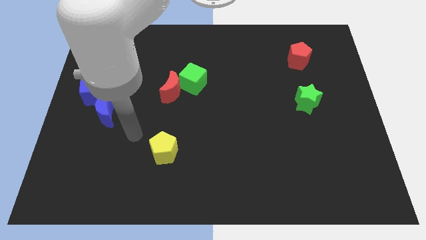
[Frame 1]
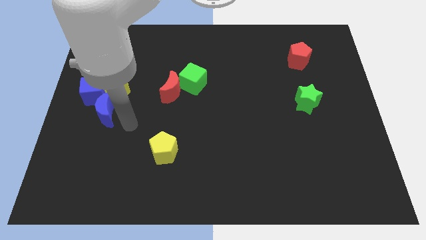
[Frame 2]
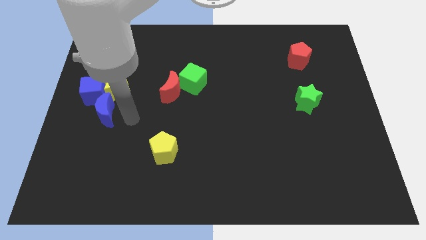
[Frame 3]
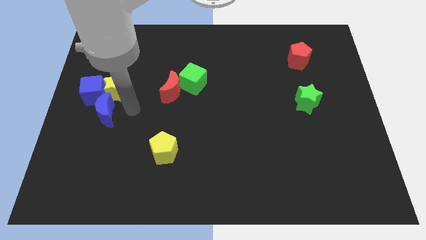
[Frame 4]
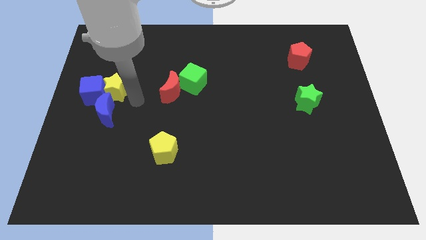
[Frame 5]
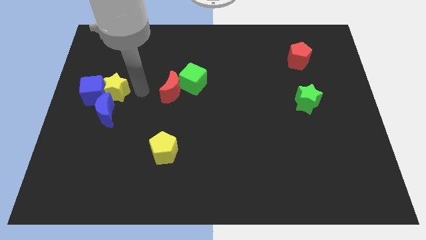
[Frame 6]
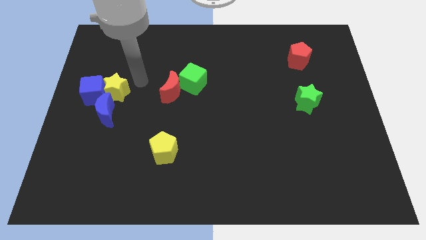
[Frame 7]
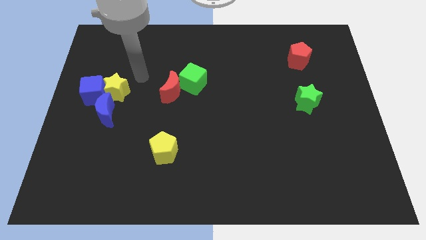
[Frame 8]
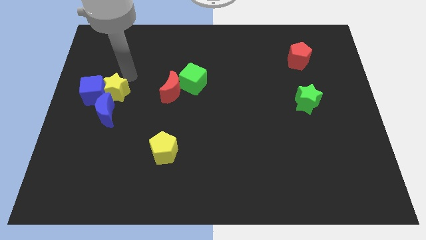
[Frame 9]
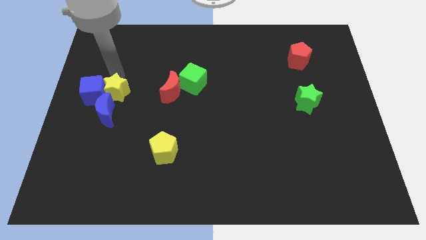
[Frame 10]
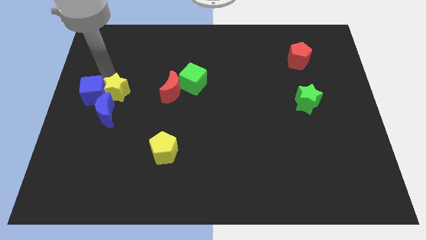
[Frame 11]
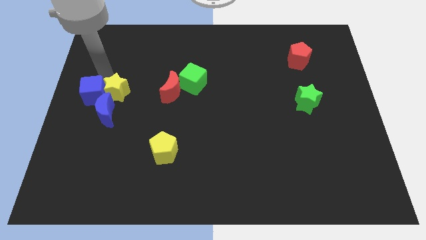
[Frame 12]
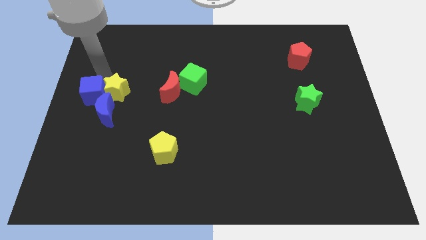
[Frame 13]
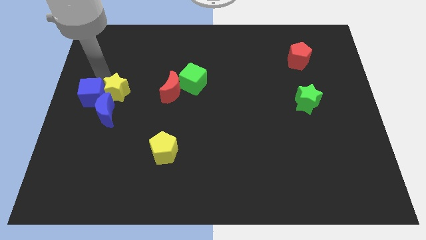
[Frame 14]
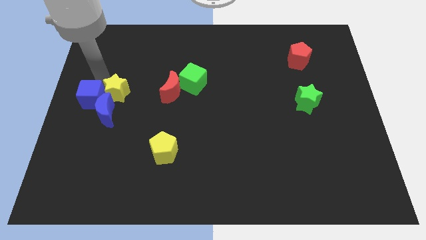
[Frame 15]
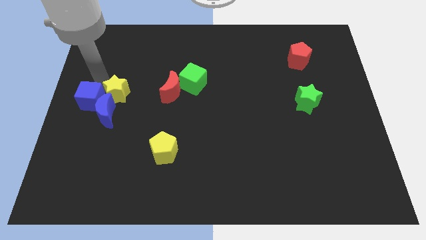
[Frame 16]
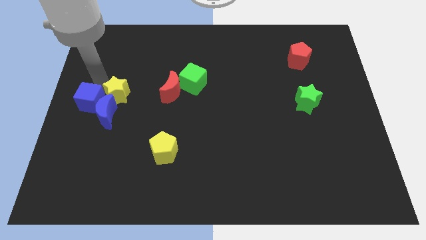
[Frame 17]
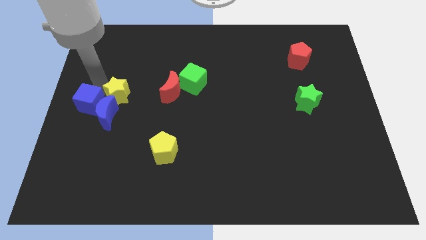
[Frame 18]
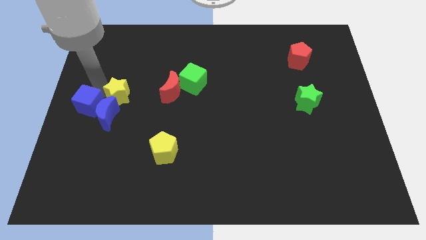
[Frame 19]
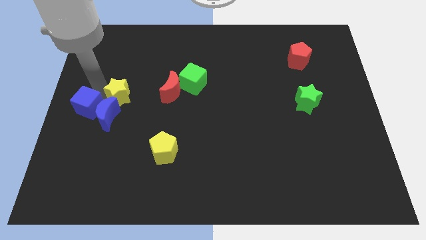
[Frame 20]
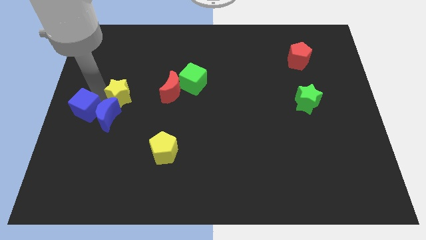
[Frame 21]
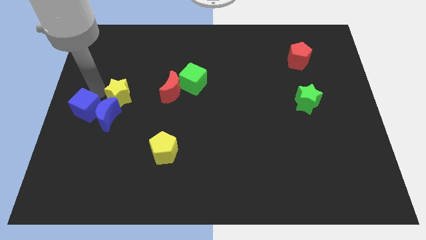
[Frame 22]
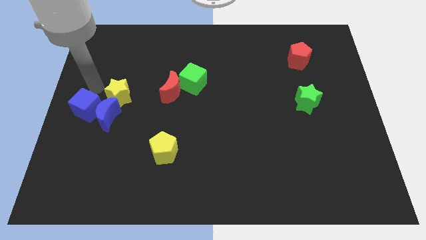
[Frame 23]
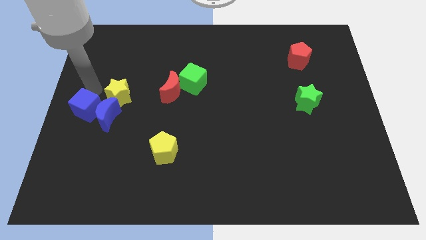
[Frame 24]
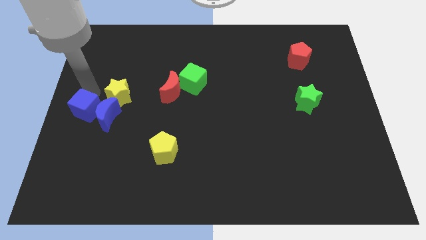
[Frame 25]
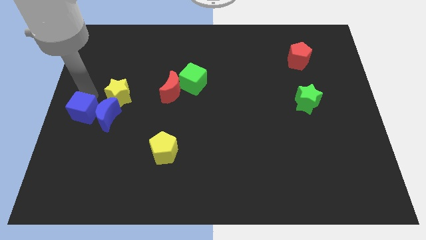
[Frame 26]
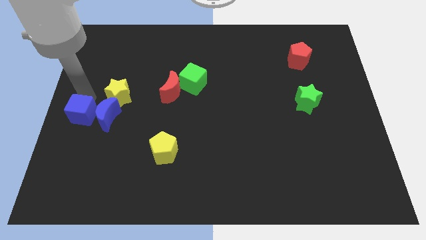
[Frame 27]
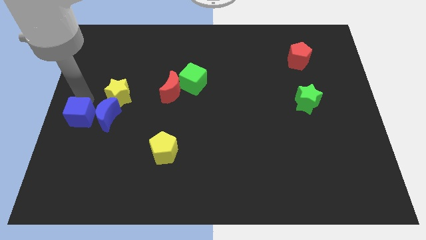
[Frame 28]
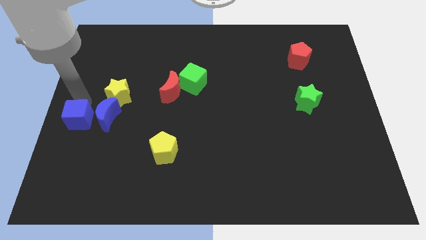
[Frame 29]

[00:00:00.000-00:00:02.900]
push the blue cube somewhat downwards

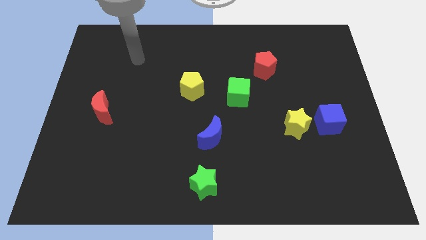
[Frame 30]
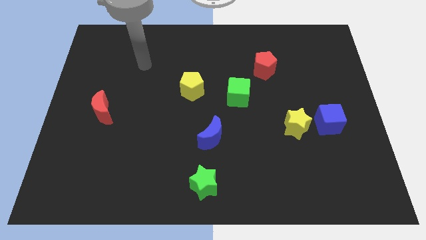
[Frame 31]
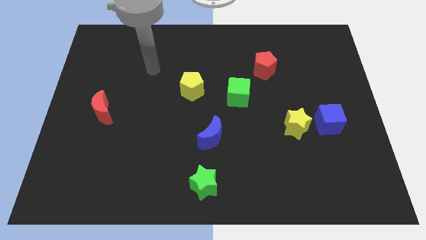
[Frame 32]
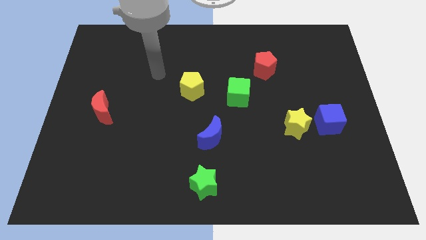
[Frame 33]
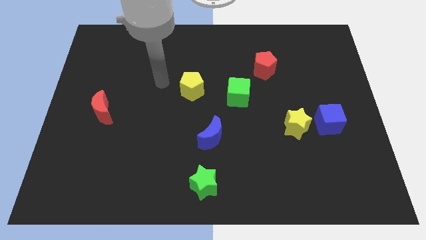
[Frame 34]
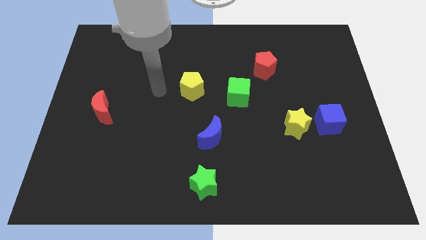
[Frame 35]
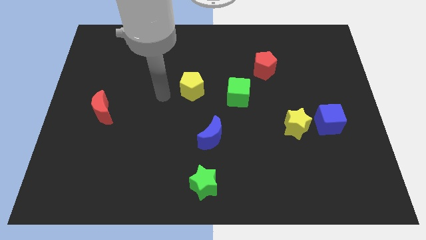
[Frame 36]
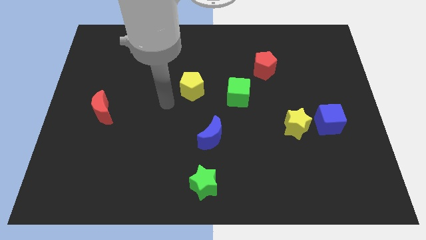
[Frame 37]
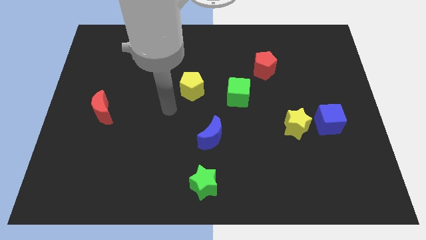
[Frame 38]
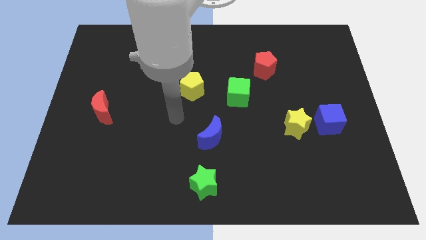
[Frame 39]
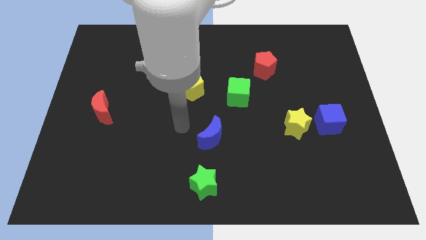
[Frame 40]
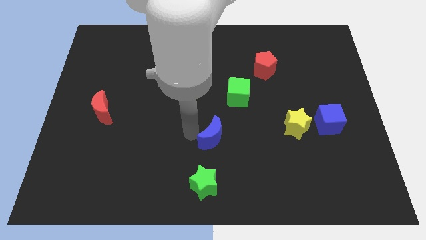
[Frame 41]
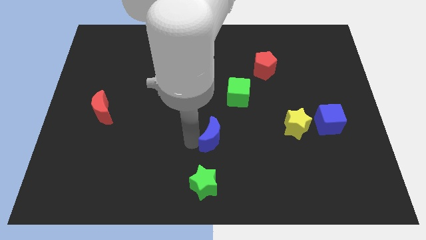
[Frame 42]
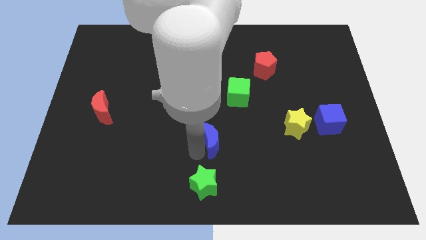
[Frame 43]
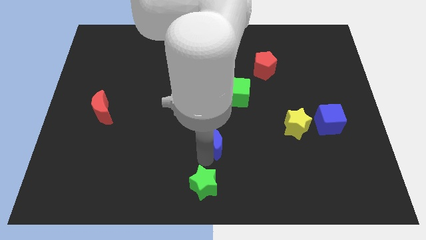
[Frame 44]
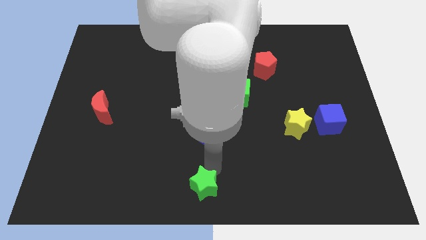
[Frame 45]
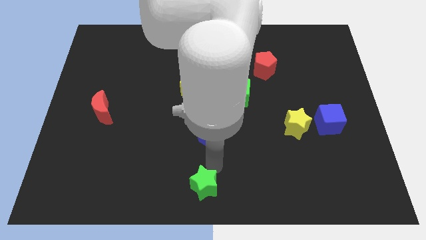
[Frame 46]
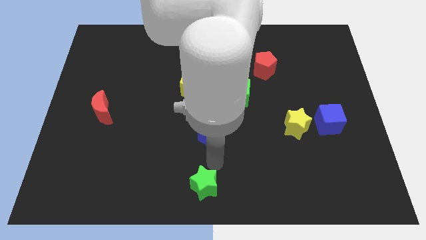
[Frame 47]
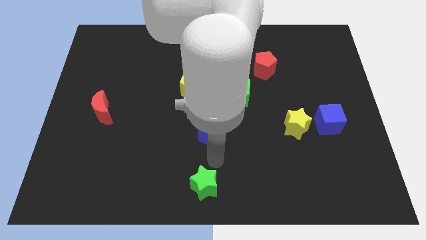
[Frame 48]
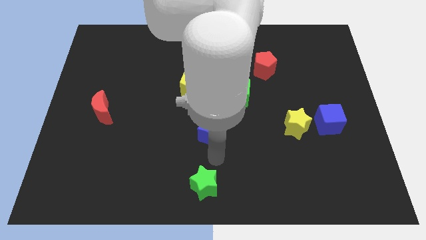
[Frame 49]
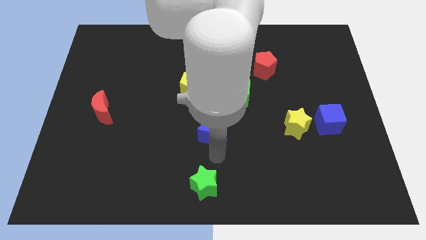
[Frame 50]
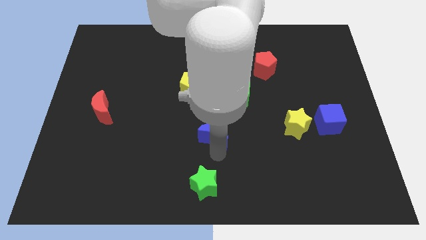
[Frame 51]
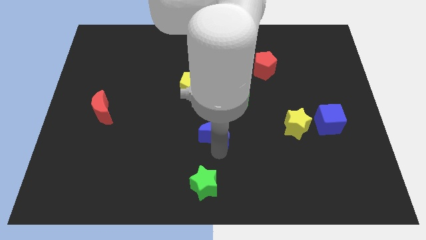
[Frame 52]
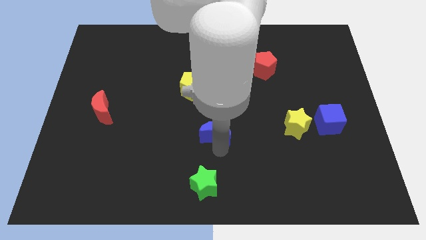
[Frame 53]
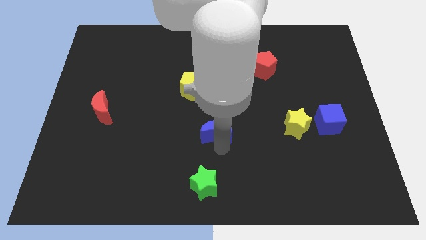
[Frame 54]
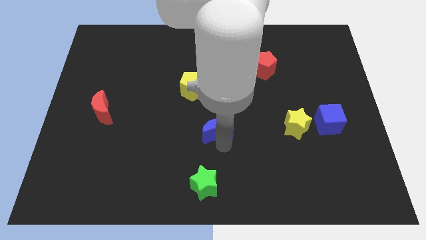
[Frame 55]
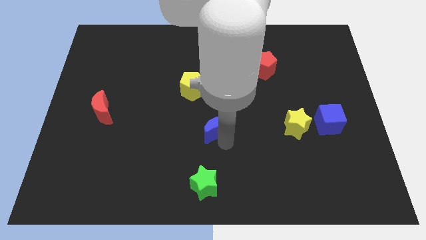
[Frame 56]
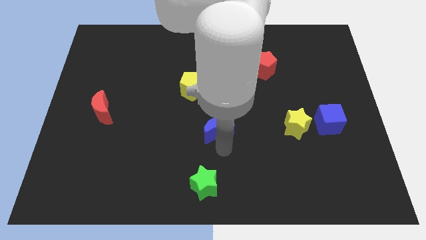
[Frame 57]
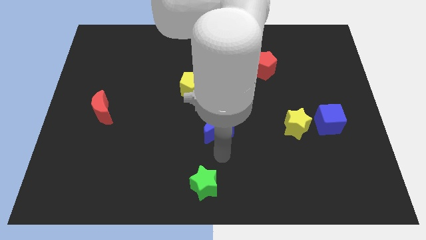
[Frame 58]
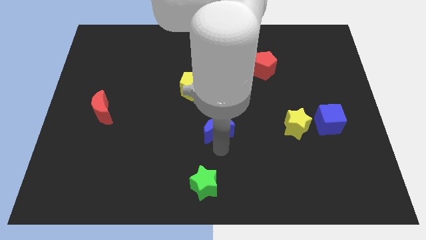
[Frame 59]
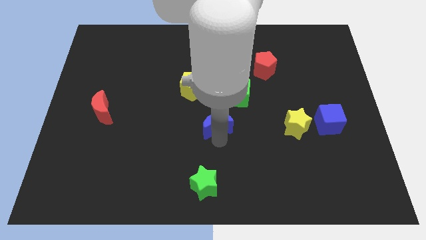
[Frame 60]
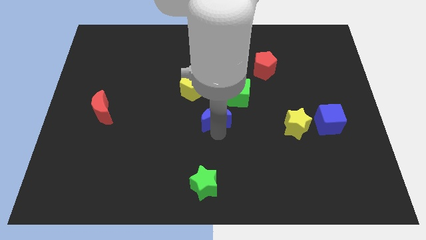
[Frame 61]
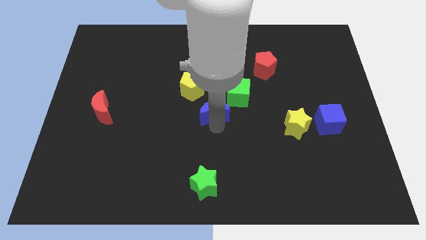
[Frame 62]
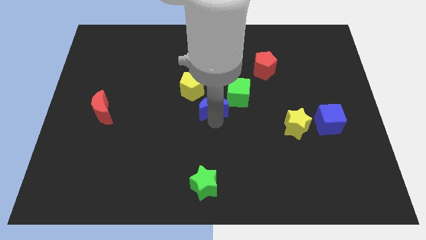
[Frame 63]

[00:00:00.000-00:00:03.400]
move the blue moon upwards somewhat

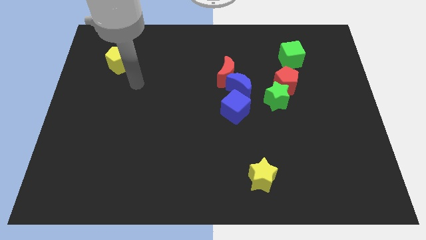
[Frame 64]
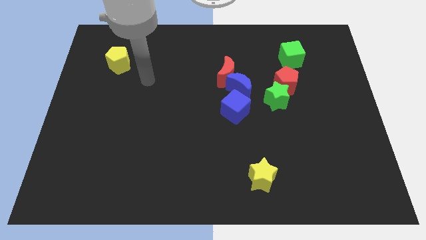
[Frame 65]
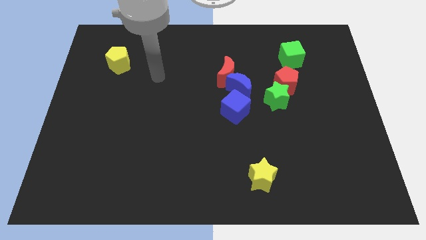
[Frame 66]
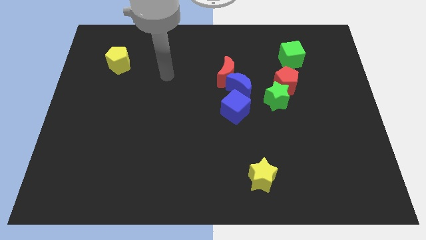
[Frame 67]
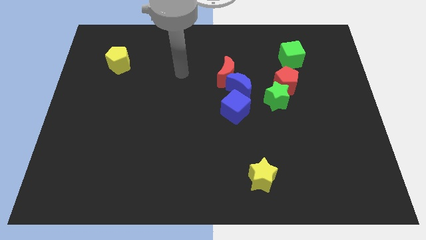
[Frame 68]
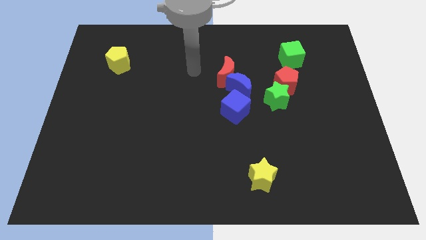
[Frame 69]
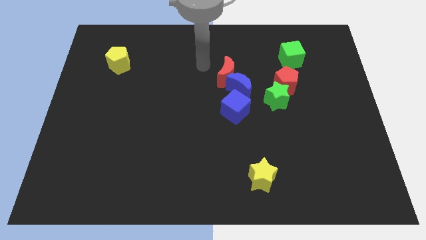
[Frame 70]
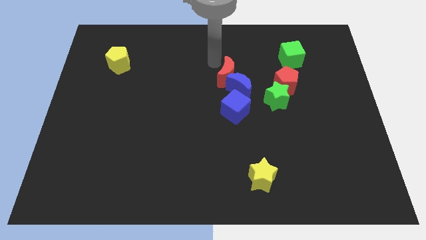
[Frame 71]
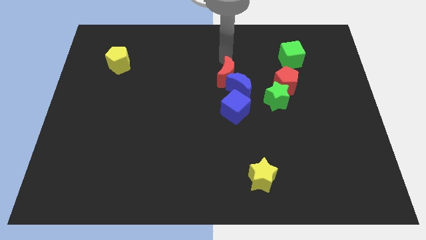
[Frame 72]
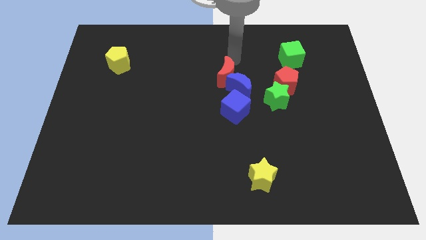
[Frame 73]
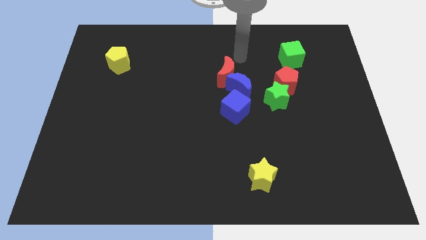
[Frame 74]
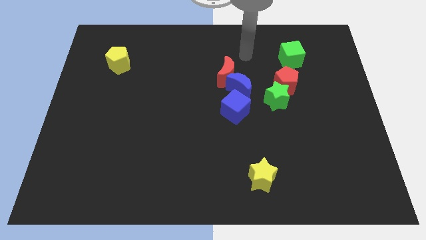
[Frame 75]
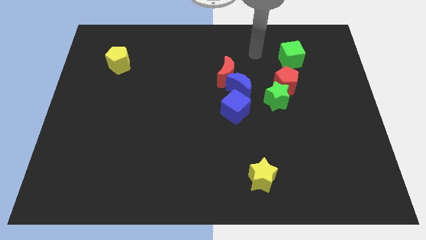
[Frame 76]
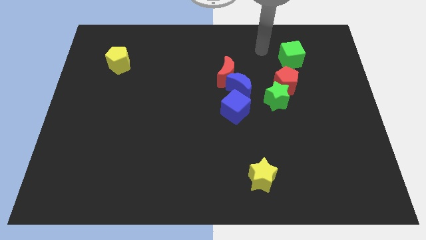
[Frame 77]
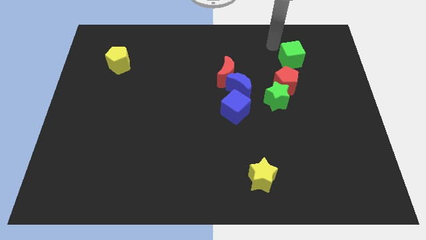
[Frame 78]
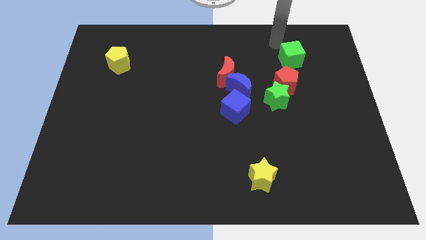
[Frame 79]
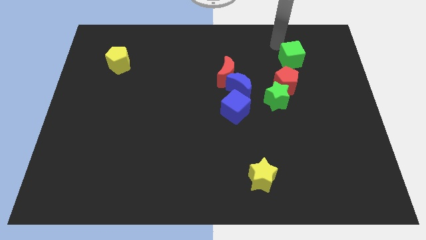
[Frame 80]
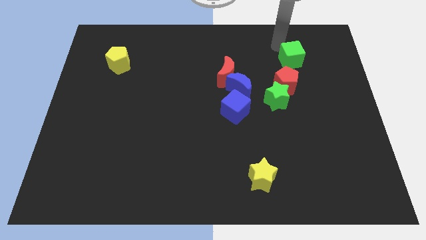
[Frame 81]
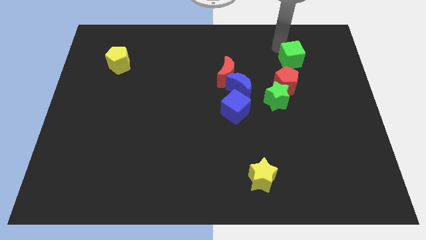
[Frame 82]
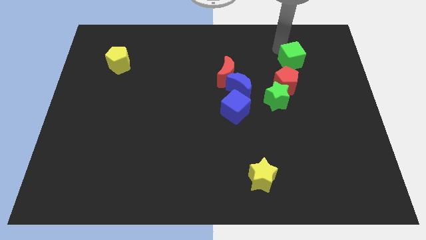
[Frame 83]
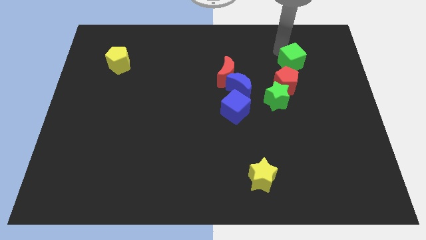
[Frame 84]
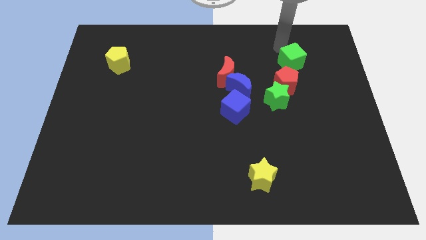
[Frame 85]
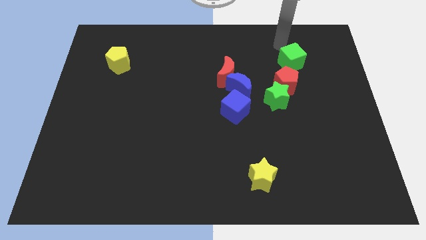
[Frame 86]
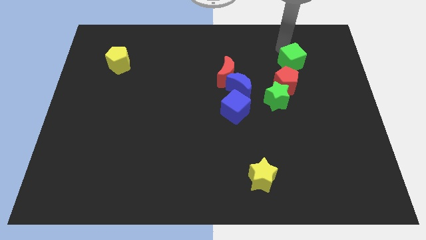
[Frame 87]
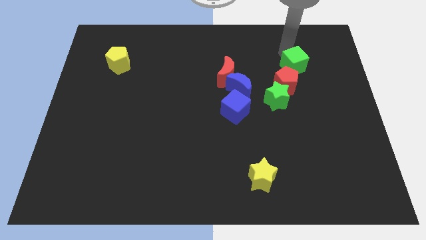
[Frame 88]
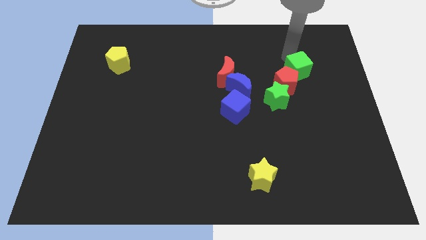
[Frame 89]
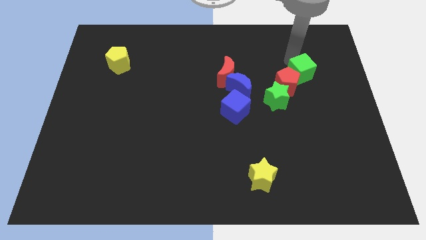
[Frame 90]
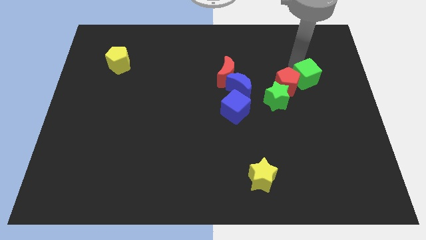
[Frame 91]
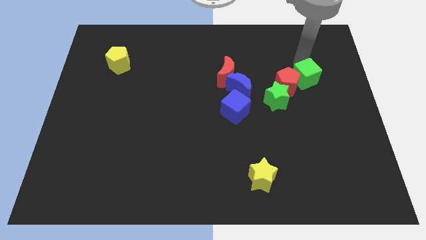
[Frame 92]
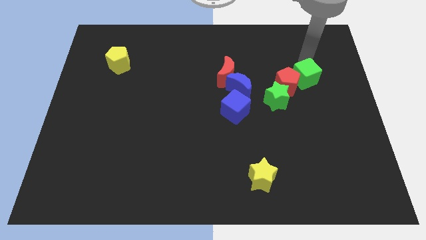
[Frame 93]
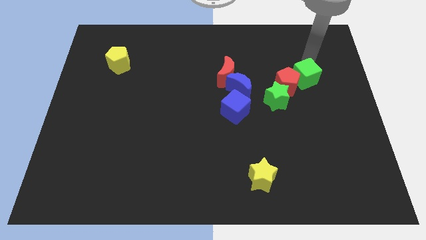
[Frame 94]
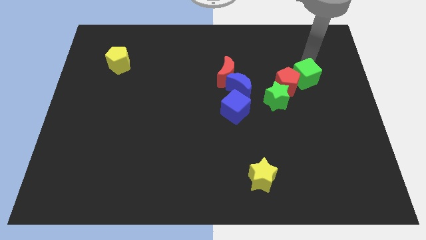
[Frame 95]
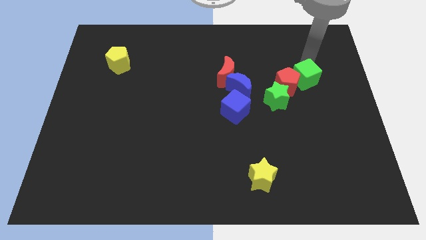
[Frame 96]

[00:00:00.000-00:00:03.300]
slide the green cube a little bit down
